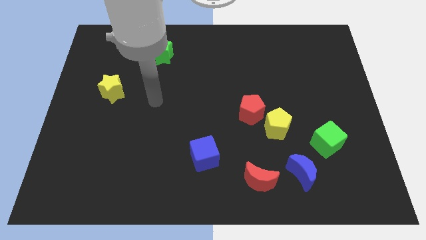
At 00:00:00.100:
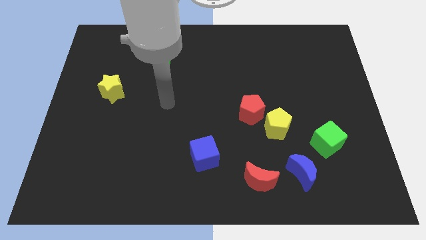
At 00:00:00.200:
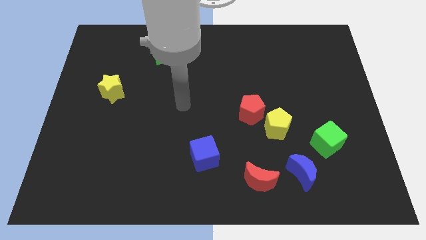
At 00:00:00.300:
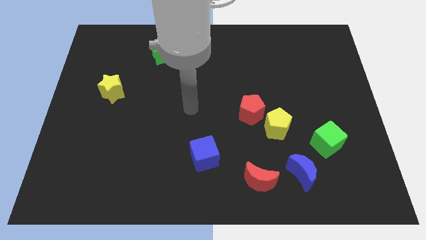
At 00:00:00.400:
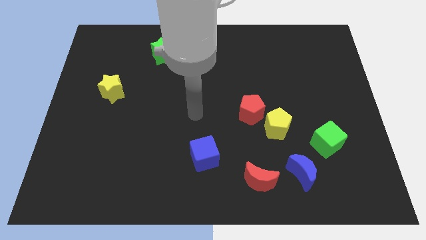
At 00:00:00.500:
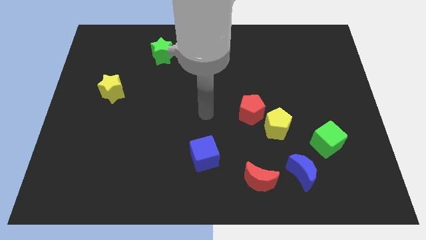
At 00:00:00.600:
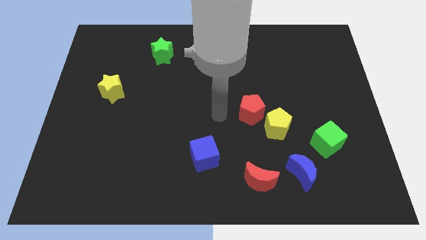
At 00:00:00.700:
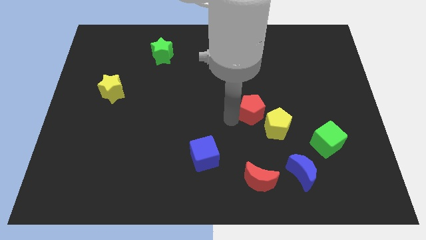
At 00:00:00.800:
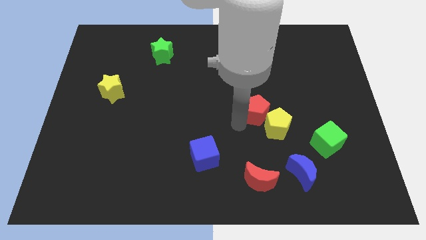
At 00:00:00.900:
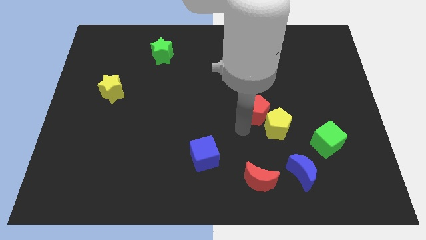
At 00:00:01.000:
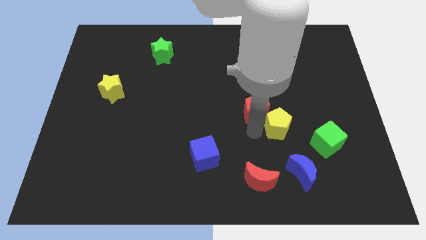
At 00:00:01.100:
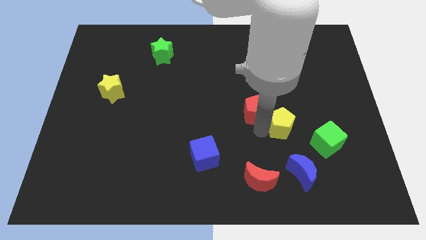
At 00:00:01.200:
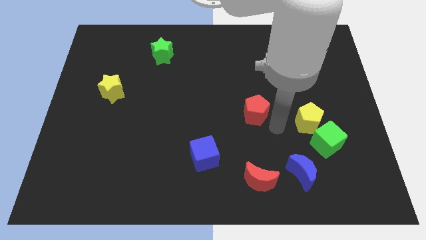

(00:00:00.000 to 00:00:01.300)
separate the red pentagon from the yellow pentagon

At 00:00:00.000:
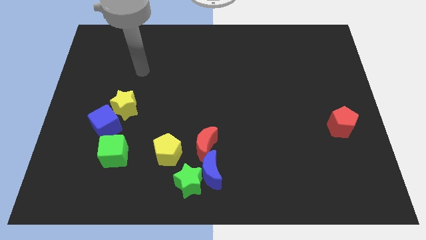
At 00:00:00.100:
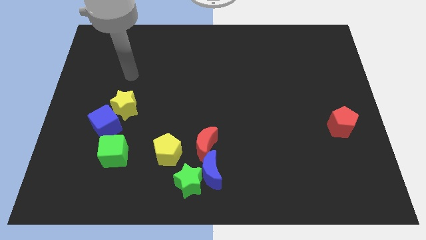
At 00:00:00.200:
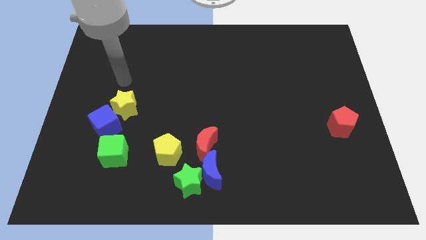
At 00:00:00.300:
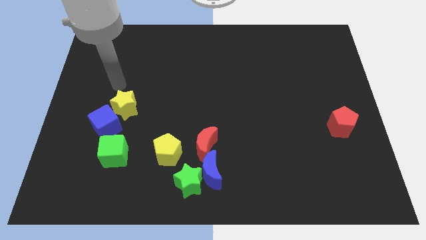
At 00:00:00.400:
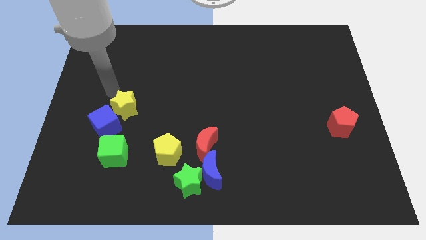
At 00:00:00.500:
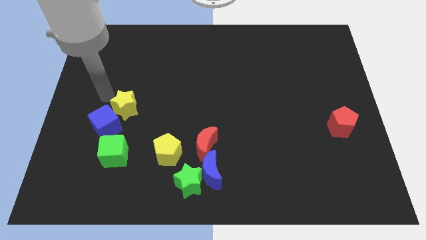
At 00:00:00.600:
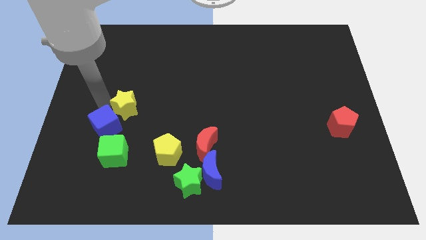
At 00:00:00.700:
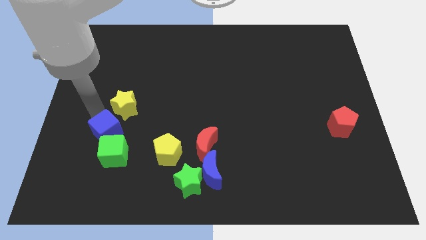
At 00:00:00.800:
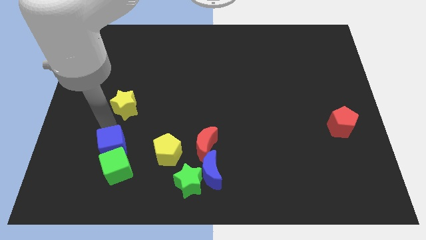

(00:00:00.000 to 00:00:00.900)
pull the yellow star apart from the blue cube

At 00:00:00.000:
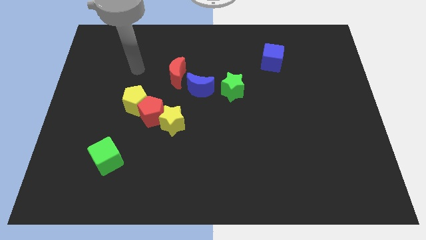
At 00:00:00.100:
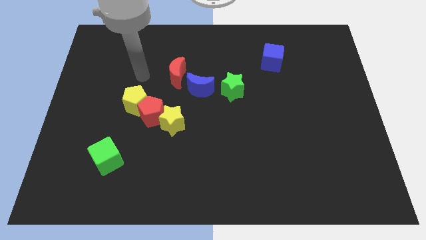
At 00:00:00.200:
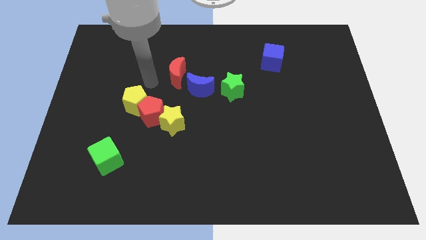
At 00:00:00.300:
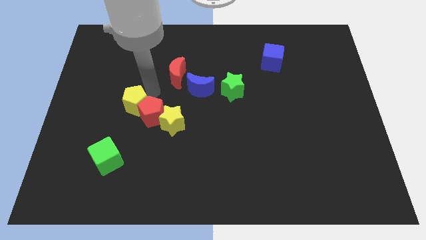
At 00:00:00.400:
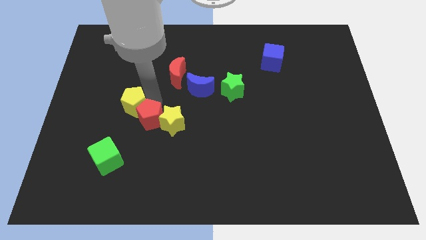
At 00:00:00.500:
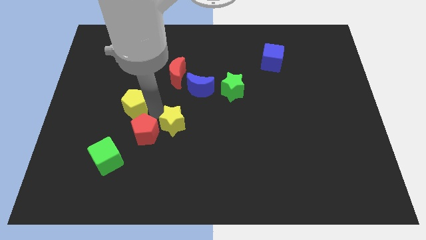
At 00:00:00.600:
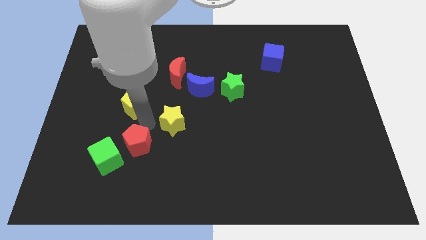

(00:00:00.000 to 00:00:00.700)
separate the yellow pentagon from the red pentagon

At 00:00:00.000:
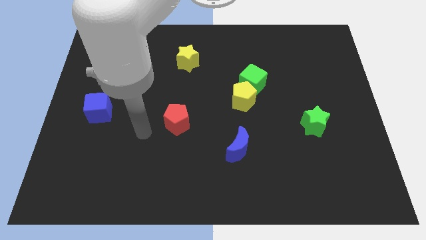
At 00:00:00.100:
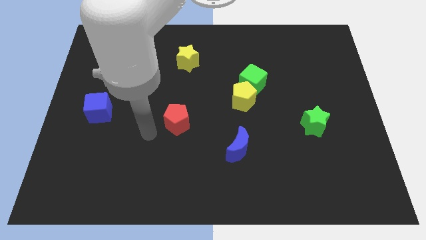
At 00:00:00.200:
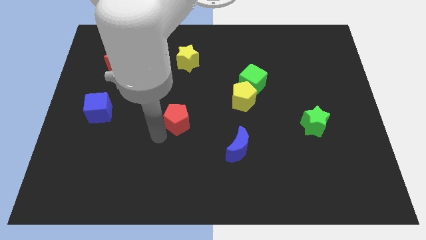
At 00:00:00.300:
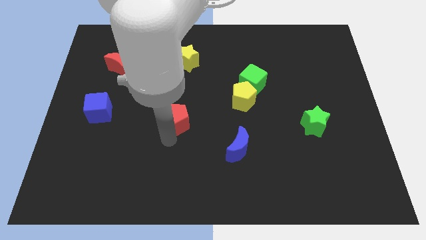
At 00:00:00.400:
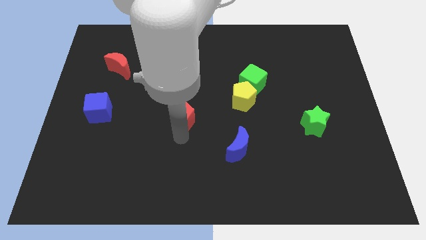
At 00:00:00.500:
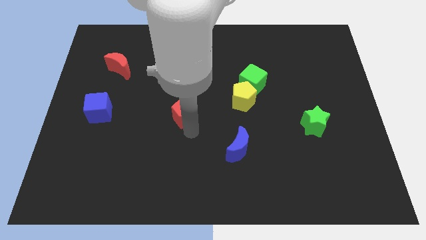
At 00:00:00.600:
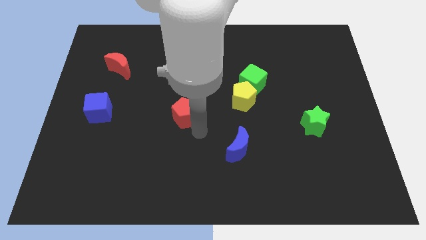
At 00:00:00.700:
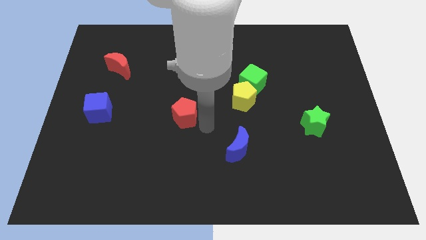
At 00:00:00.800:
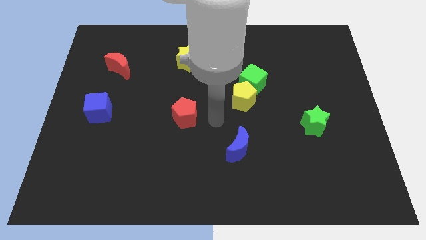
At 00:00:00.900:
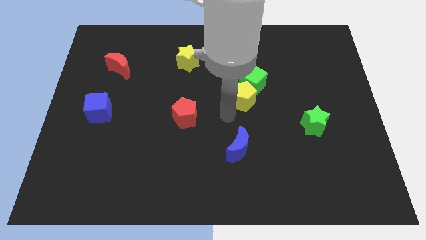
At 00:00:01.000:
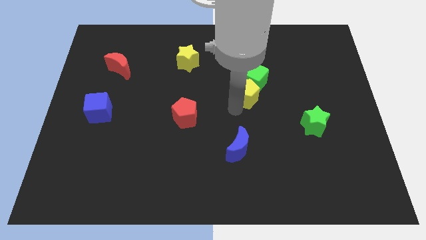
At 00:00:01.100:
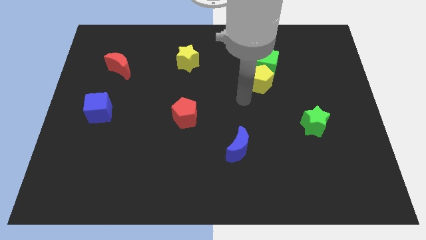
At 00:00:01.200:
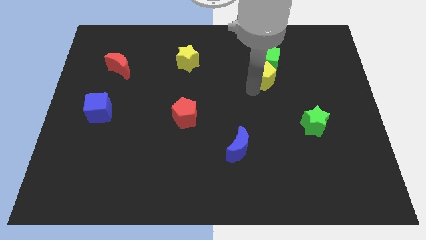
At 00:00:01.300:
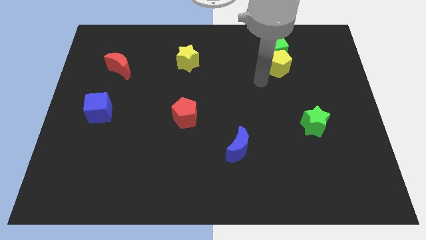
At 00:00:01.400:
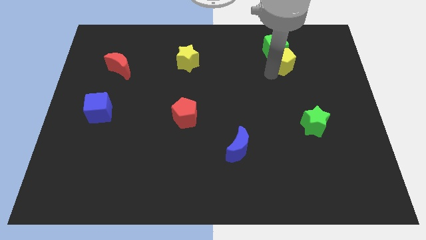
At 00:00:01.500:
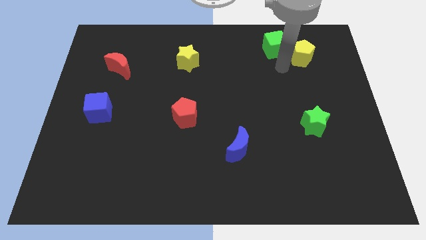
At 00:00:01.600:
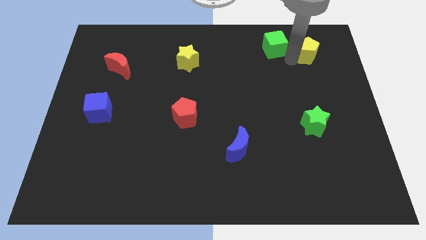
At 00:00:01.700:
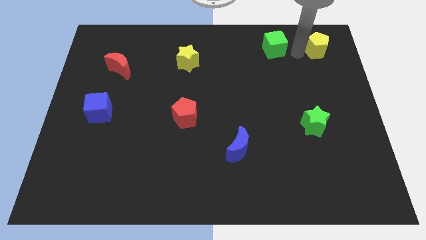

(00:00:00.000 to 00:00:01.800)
pull the green cube apart from the yellow pentagon

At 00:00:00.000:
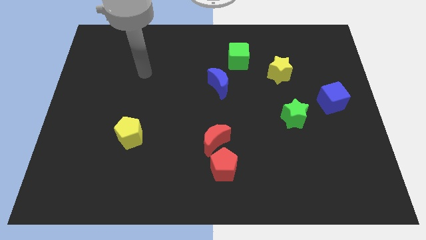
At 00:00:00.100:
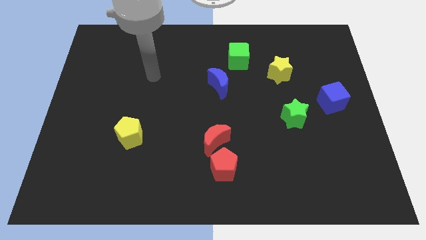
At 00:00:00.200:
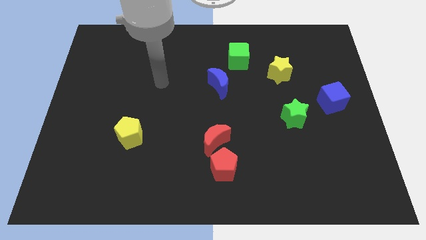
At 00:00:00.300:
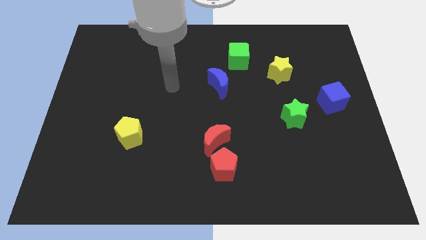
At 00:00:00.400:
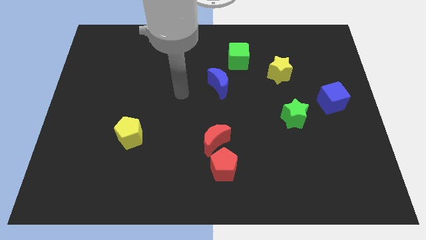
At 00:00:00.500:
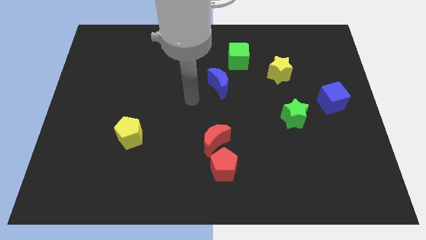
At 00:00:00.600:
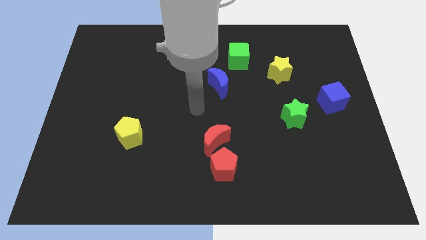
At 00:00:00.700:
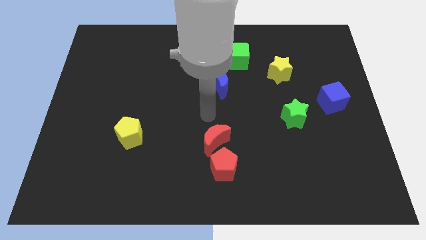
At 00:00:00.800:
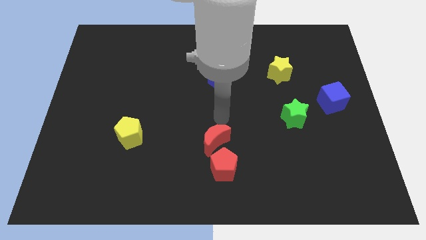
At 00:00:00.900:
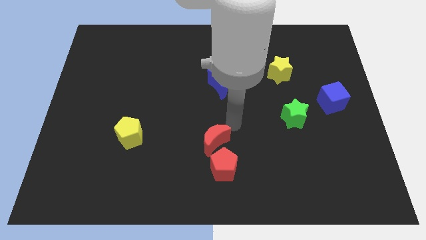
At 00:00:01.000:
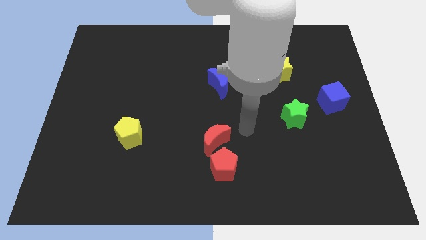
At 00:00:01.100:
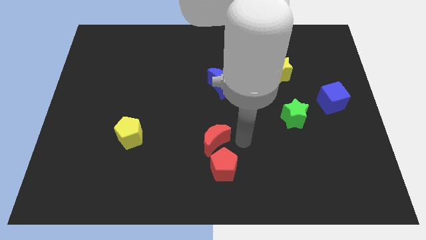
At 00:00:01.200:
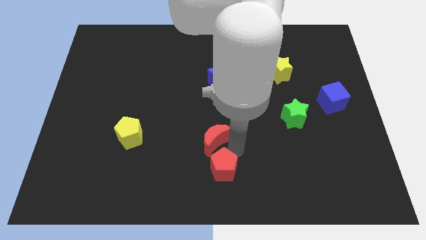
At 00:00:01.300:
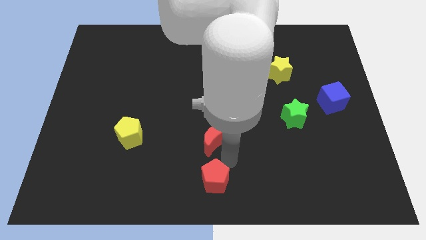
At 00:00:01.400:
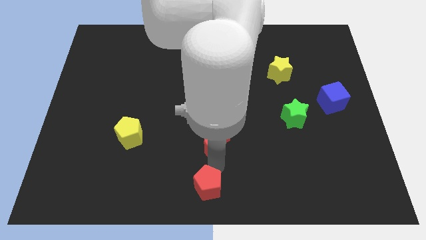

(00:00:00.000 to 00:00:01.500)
separate the red moon from the red pentagon

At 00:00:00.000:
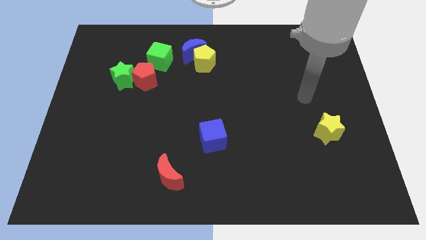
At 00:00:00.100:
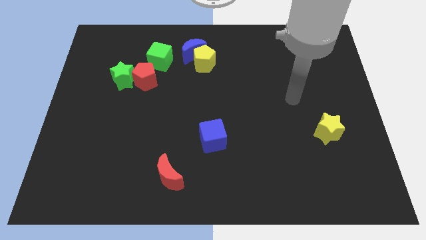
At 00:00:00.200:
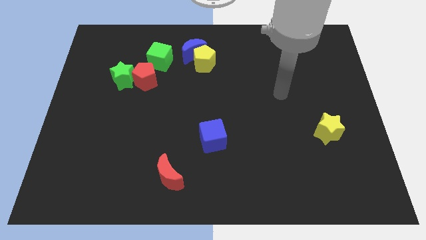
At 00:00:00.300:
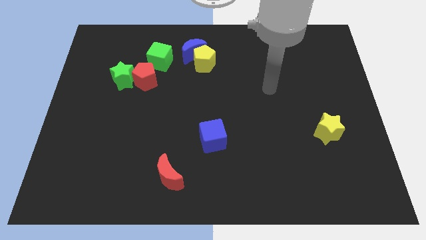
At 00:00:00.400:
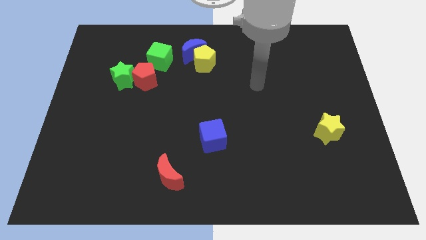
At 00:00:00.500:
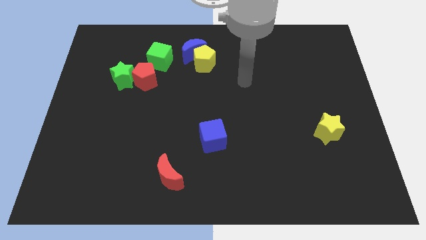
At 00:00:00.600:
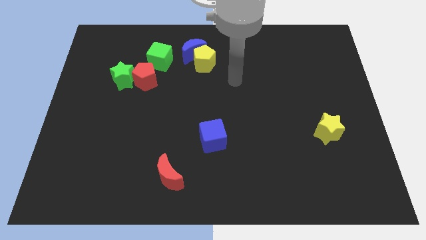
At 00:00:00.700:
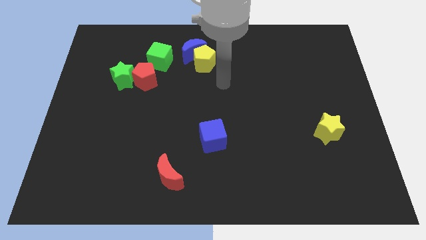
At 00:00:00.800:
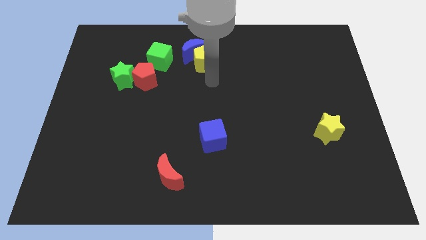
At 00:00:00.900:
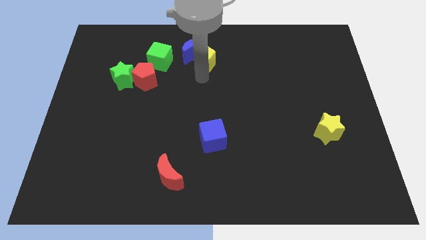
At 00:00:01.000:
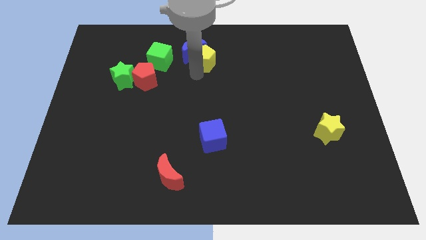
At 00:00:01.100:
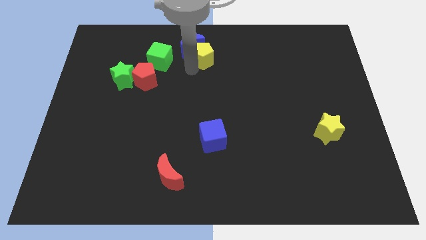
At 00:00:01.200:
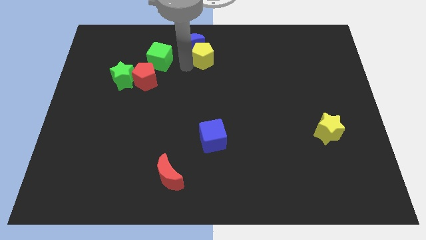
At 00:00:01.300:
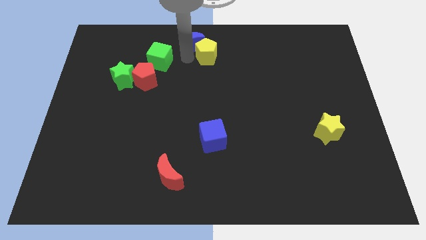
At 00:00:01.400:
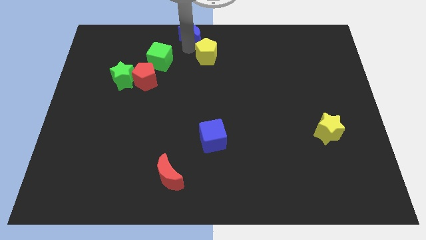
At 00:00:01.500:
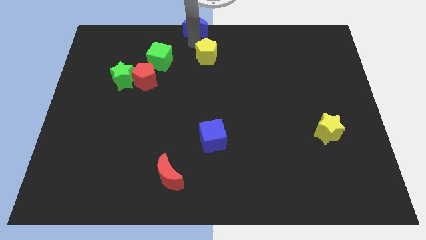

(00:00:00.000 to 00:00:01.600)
separate the yellow pentagon from the blue moon

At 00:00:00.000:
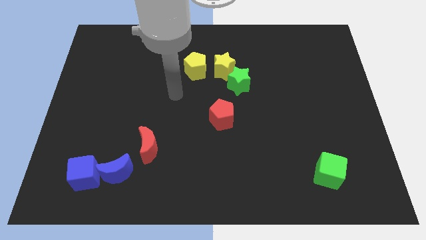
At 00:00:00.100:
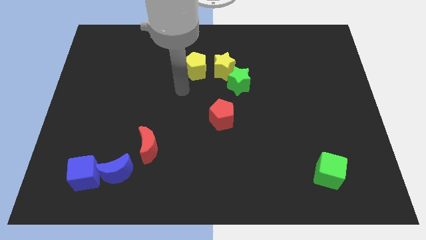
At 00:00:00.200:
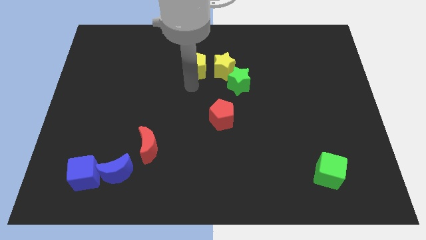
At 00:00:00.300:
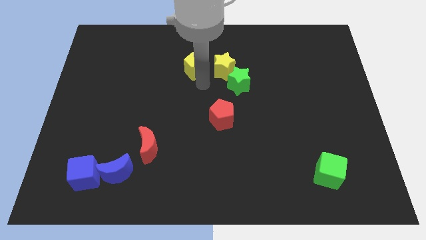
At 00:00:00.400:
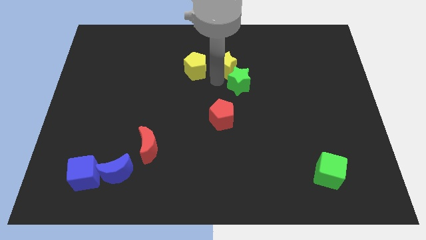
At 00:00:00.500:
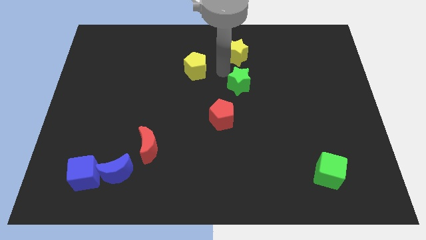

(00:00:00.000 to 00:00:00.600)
move the green star away from the yellow star

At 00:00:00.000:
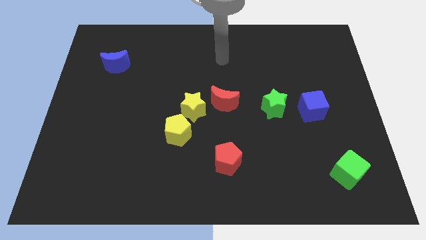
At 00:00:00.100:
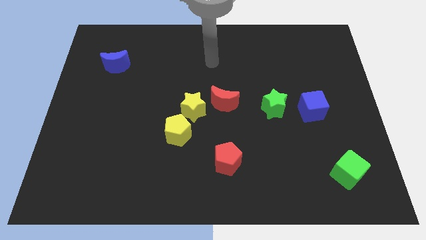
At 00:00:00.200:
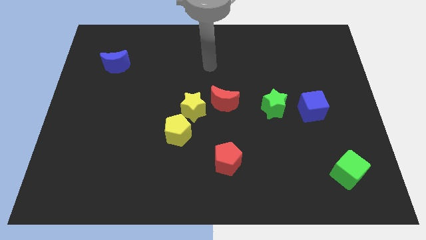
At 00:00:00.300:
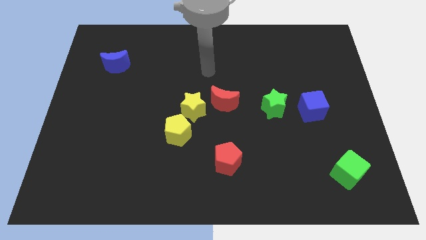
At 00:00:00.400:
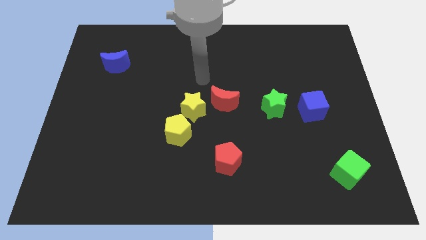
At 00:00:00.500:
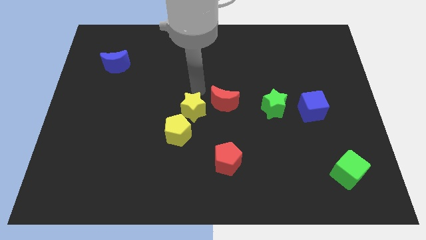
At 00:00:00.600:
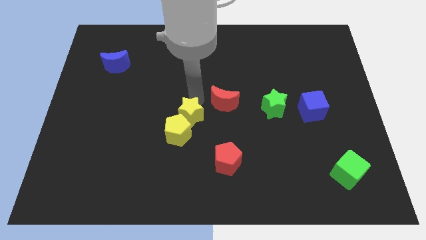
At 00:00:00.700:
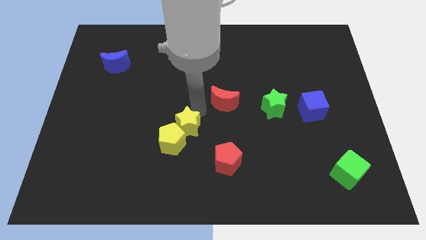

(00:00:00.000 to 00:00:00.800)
move the red moon away from the yellow star
